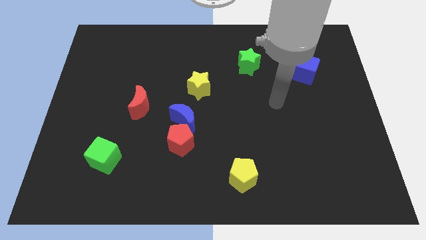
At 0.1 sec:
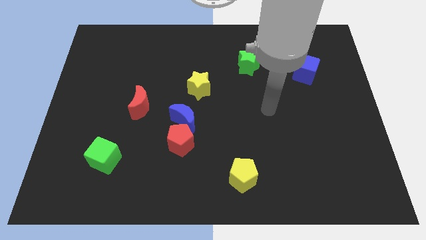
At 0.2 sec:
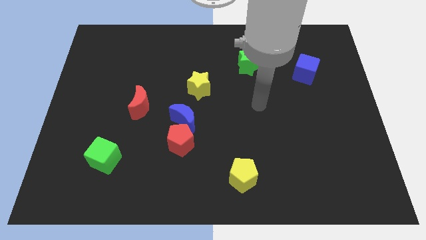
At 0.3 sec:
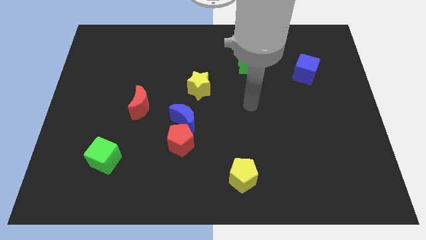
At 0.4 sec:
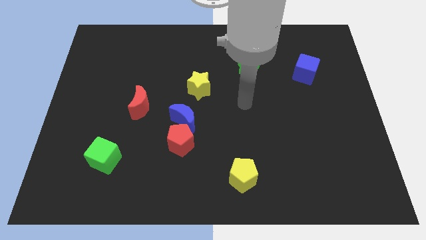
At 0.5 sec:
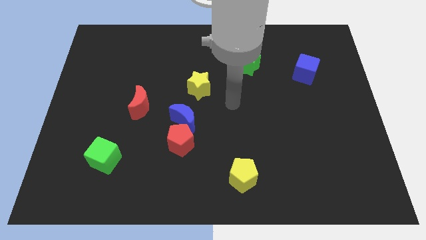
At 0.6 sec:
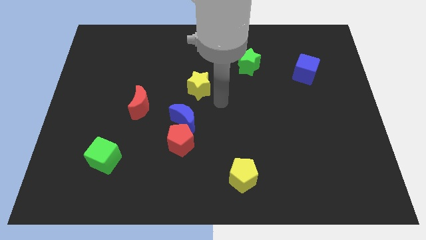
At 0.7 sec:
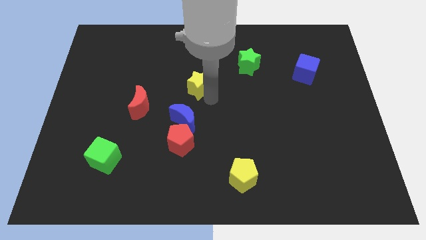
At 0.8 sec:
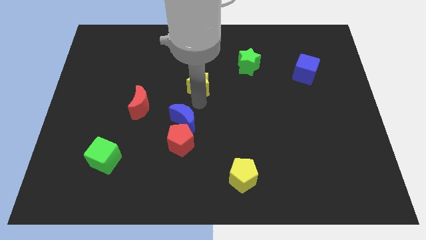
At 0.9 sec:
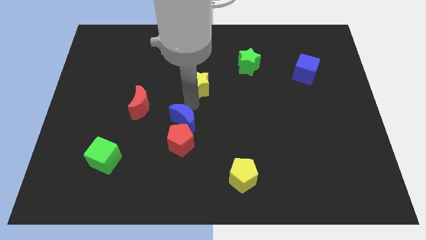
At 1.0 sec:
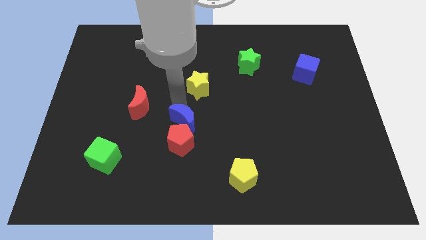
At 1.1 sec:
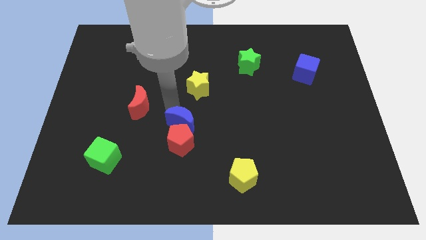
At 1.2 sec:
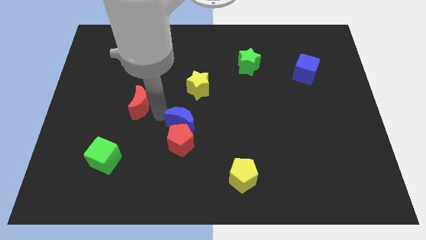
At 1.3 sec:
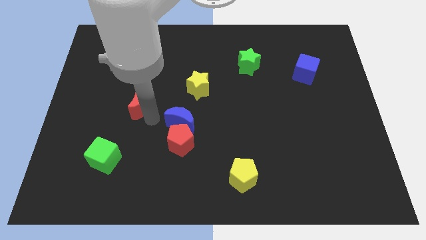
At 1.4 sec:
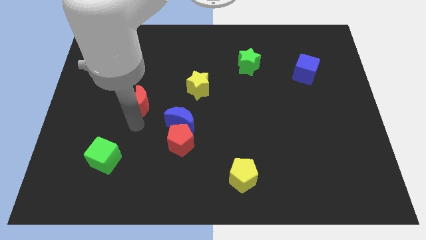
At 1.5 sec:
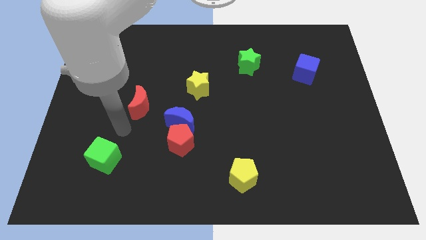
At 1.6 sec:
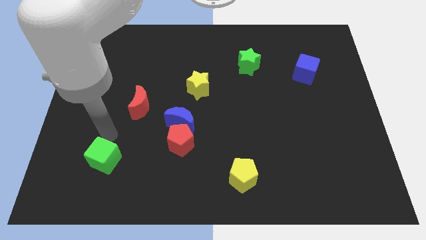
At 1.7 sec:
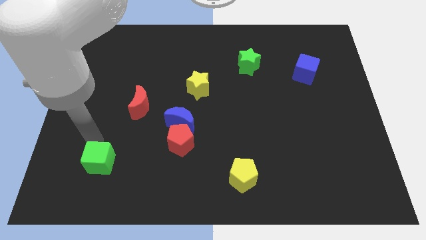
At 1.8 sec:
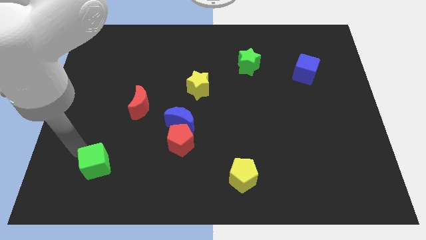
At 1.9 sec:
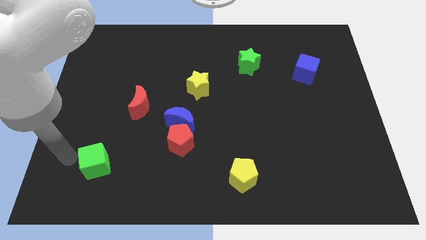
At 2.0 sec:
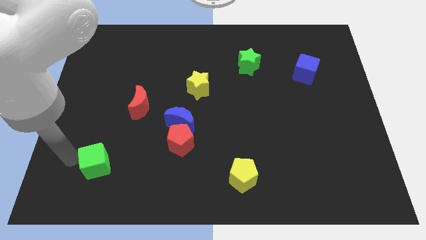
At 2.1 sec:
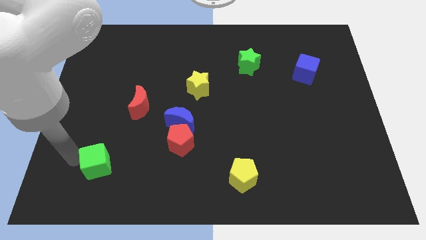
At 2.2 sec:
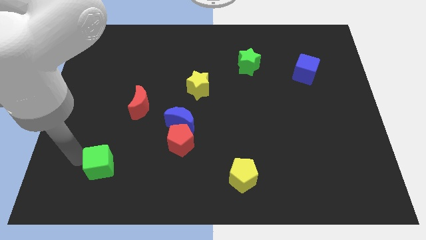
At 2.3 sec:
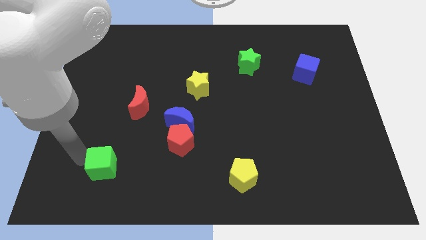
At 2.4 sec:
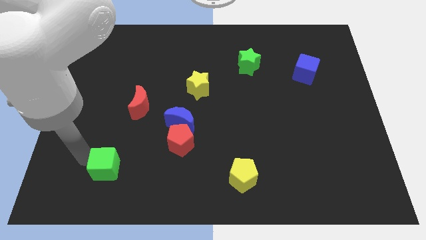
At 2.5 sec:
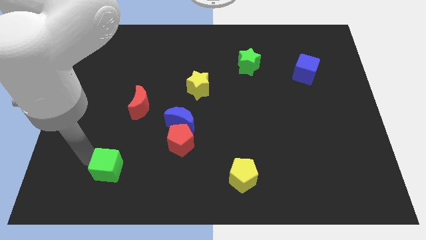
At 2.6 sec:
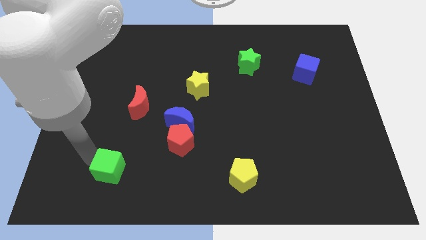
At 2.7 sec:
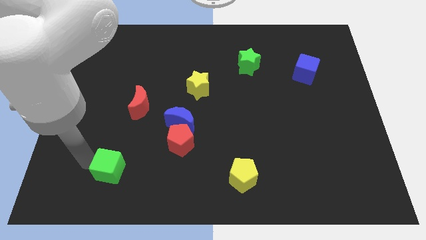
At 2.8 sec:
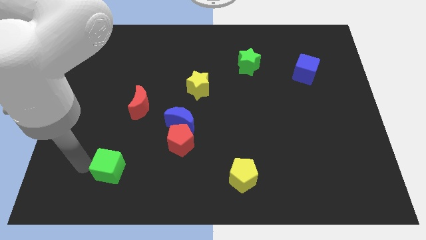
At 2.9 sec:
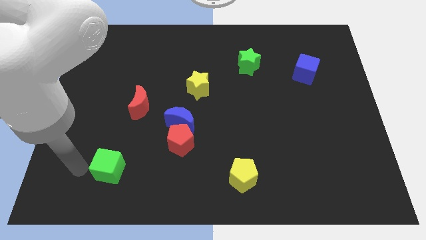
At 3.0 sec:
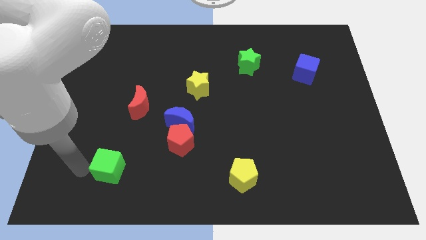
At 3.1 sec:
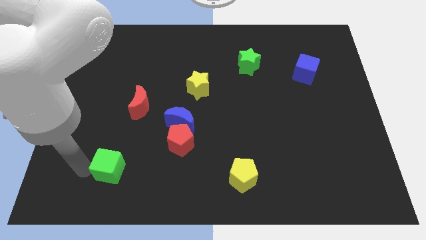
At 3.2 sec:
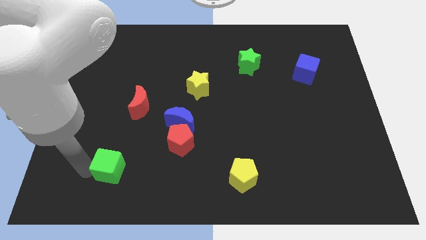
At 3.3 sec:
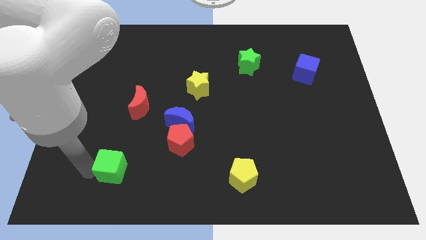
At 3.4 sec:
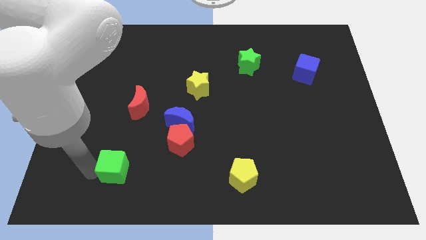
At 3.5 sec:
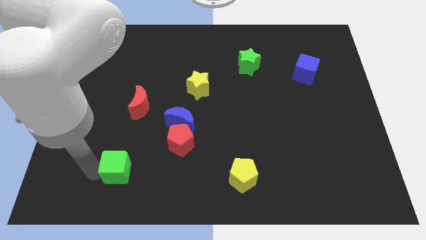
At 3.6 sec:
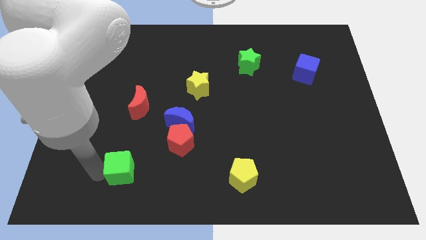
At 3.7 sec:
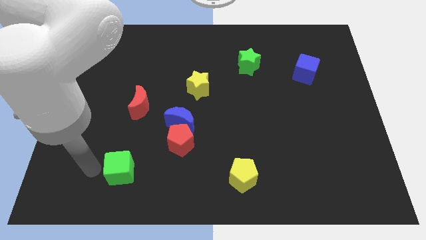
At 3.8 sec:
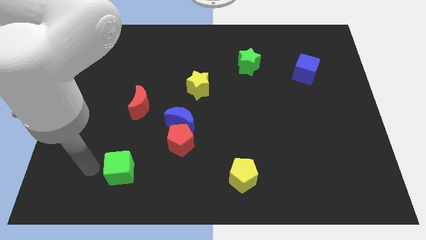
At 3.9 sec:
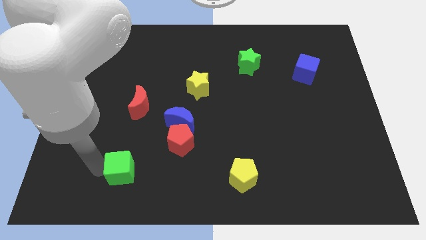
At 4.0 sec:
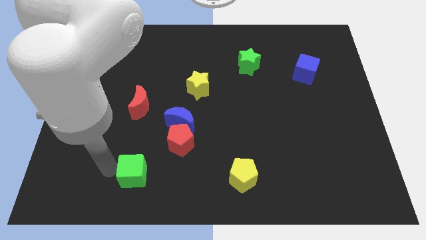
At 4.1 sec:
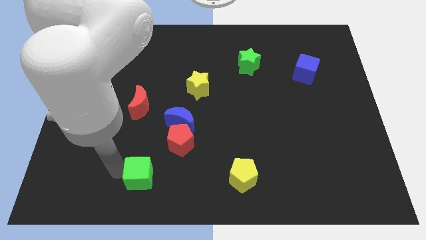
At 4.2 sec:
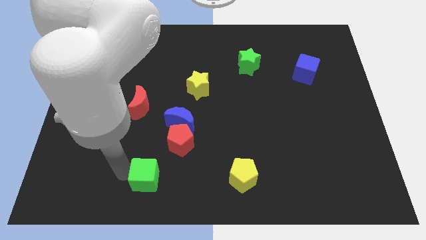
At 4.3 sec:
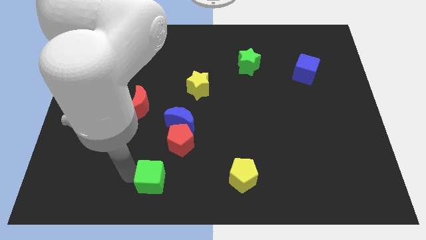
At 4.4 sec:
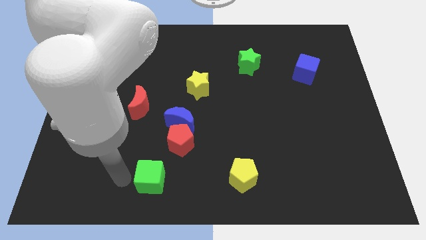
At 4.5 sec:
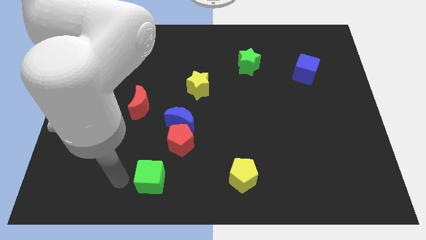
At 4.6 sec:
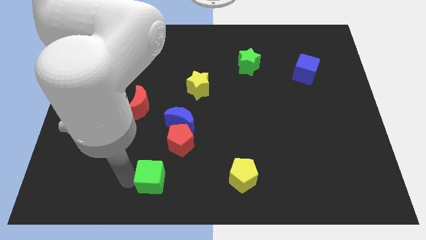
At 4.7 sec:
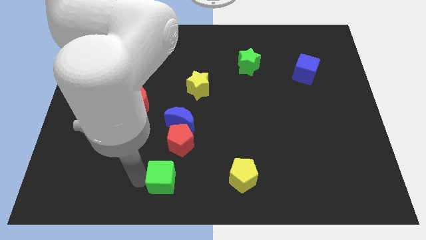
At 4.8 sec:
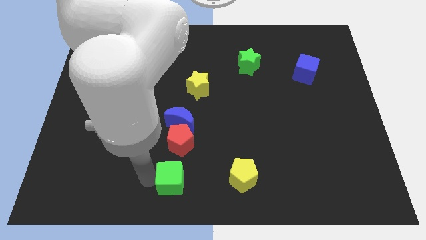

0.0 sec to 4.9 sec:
slide the green cube just left of the yellow pentagon

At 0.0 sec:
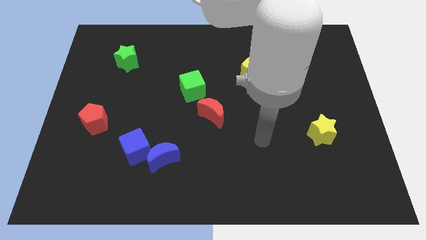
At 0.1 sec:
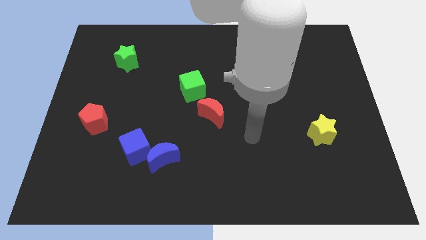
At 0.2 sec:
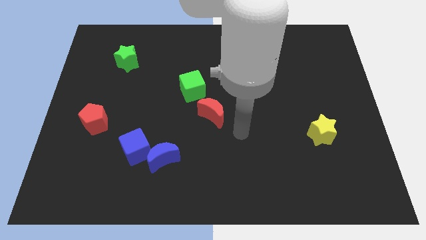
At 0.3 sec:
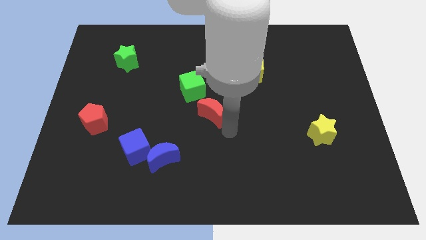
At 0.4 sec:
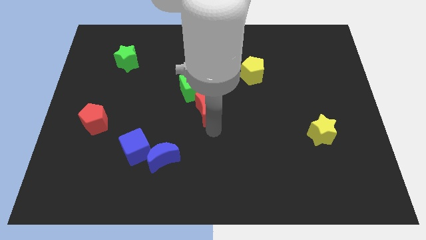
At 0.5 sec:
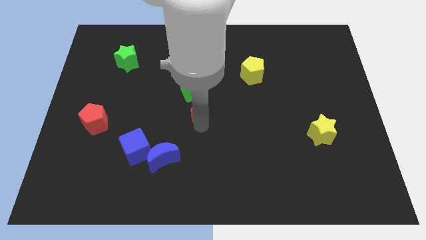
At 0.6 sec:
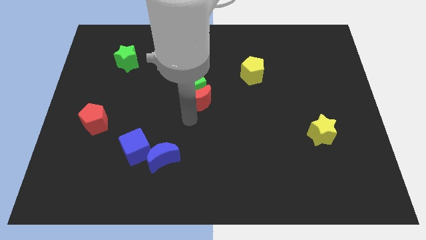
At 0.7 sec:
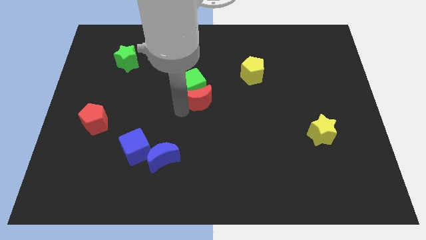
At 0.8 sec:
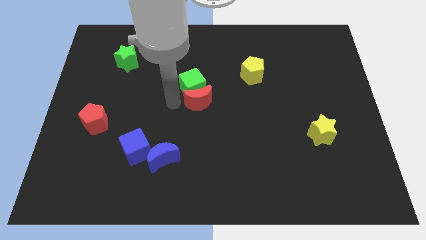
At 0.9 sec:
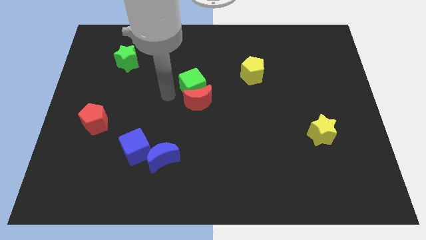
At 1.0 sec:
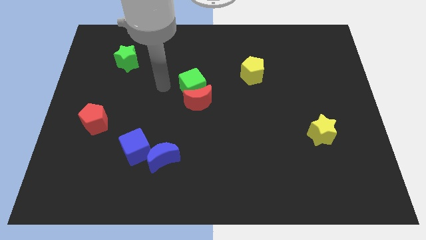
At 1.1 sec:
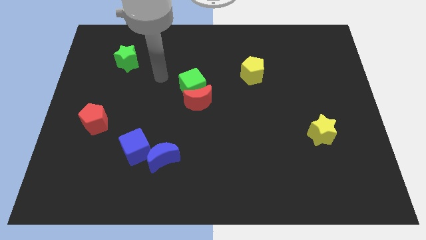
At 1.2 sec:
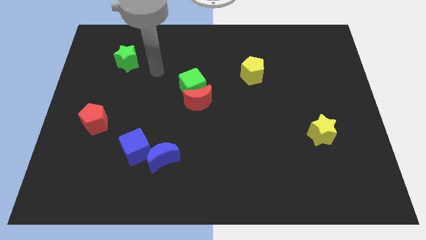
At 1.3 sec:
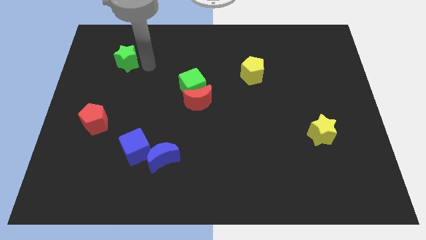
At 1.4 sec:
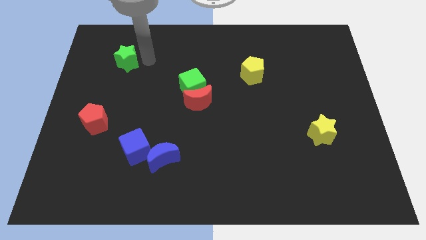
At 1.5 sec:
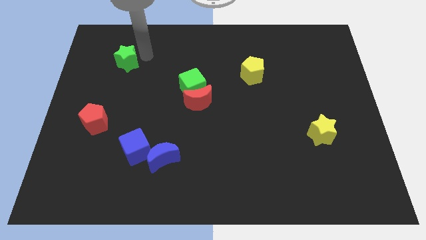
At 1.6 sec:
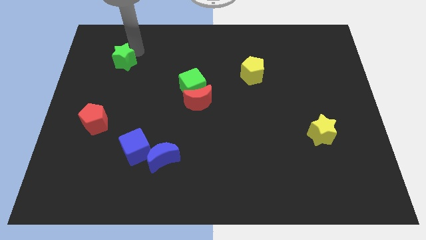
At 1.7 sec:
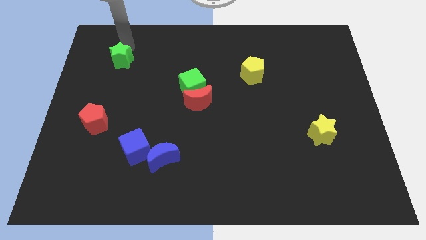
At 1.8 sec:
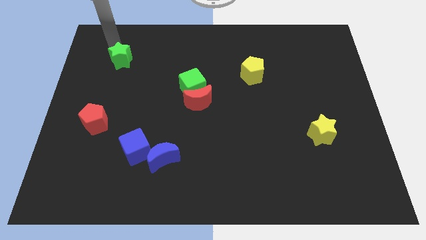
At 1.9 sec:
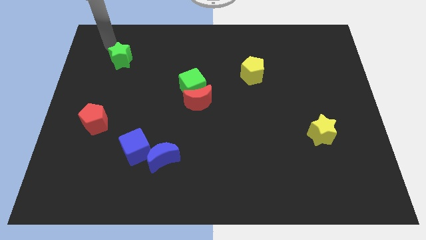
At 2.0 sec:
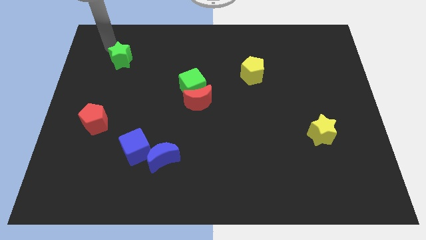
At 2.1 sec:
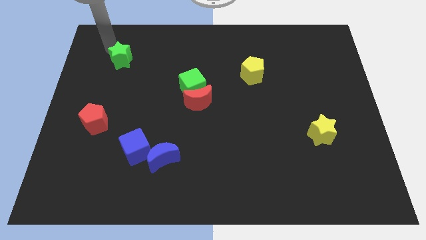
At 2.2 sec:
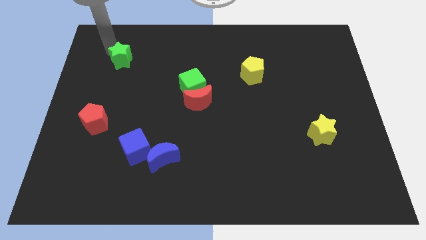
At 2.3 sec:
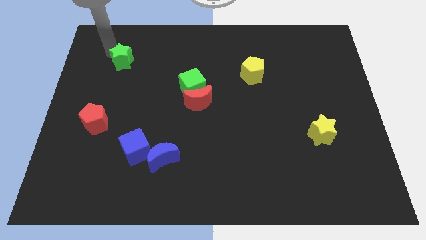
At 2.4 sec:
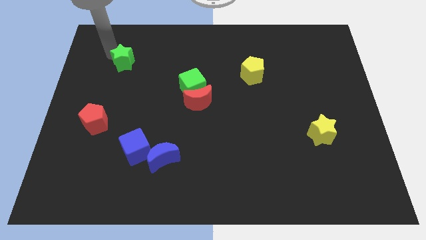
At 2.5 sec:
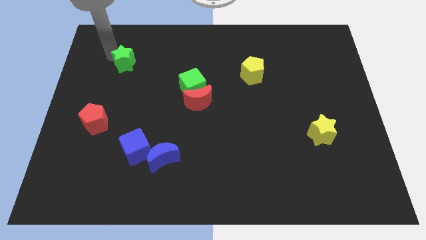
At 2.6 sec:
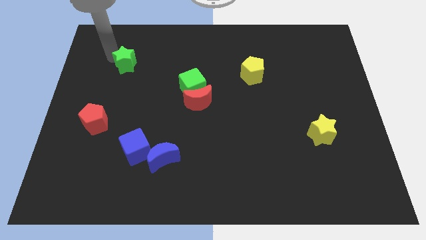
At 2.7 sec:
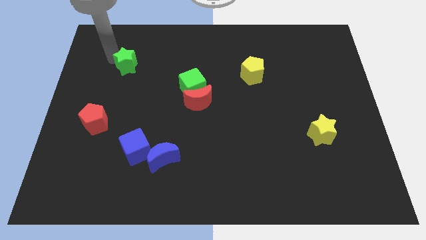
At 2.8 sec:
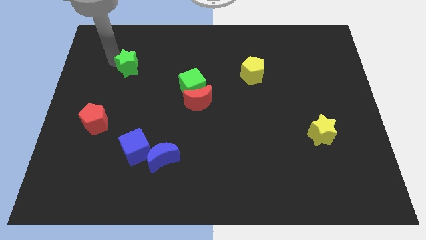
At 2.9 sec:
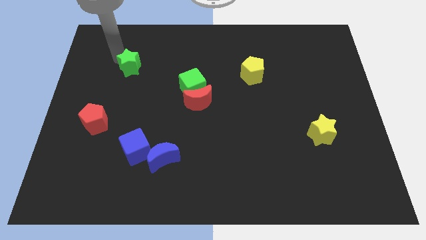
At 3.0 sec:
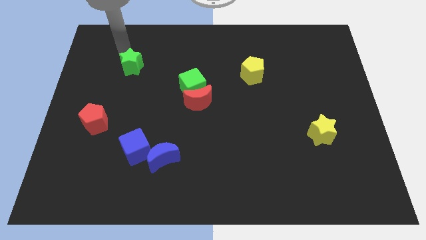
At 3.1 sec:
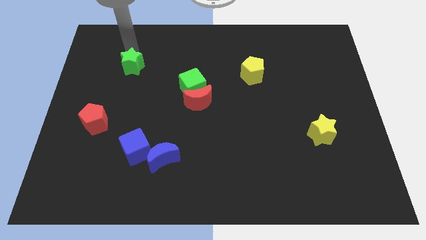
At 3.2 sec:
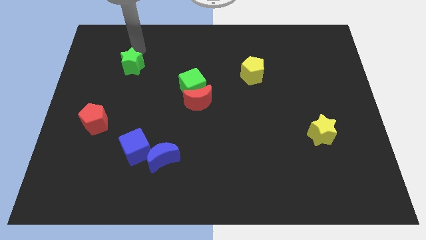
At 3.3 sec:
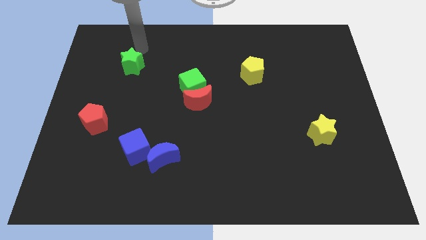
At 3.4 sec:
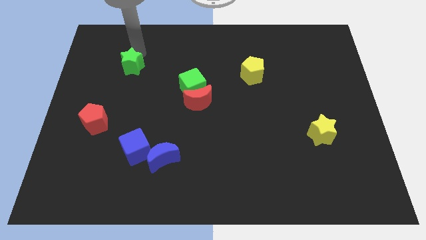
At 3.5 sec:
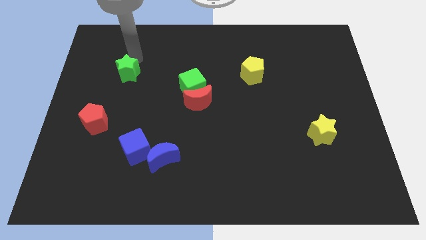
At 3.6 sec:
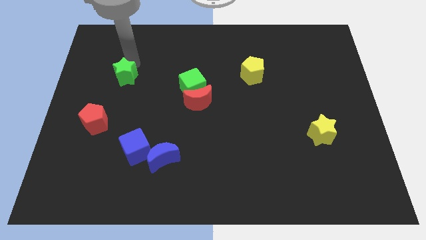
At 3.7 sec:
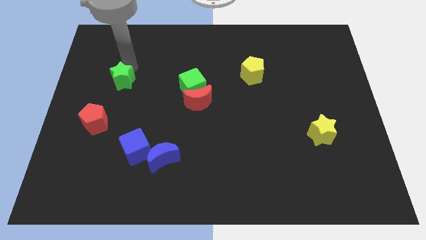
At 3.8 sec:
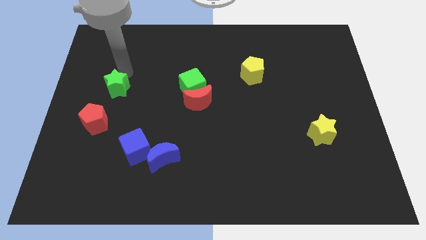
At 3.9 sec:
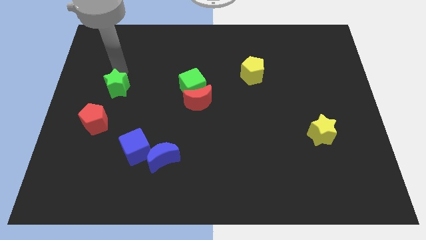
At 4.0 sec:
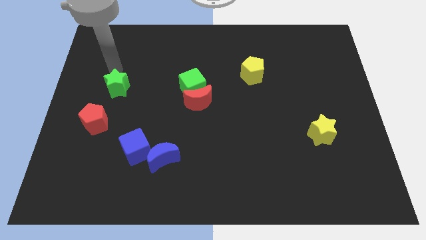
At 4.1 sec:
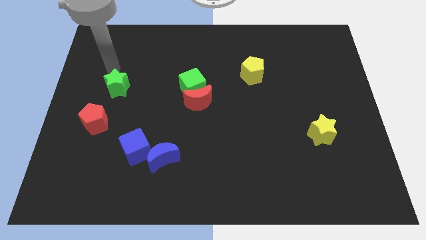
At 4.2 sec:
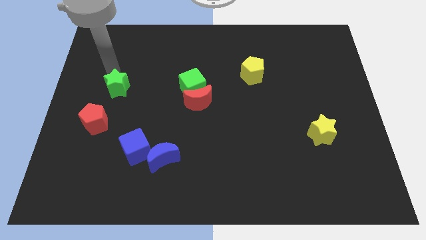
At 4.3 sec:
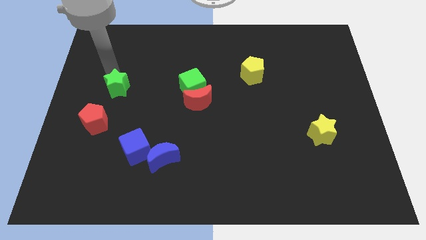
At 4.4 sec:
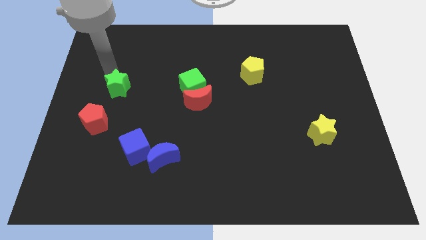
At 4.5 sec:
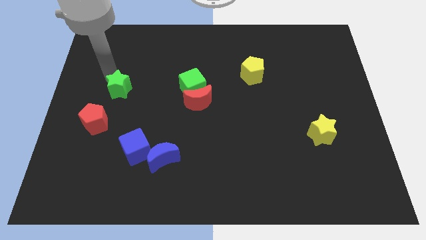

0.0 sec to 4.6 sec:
move the green star diagonally up and to the right of the red pentagon
